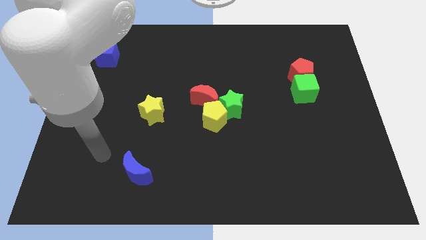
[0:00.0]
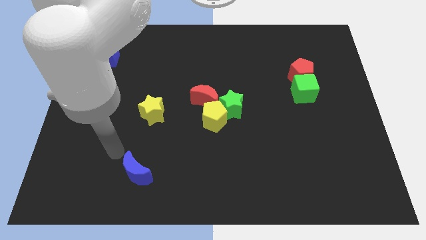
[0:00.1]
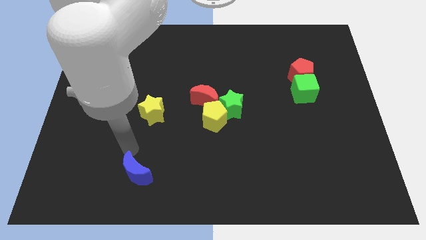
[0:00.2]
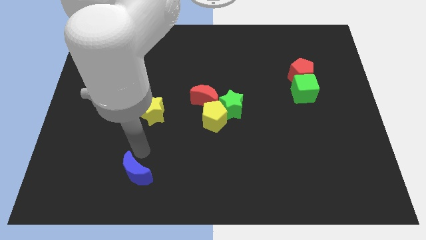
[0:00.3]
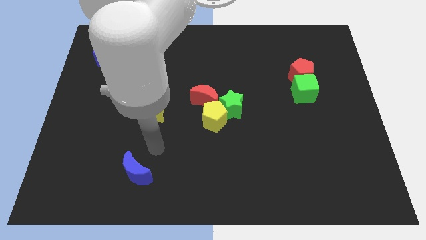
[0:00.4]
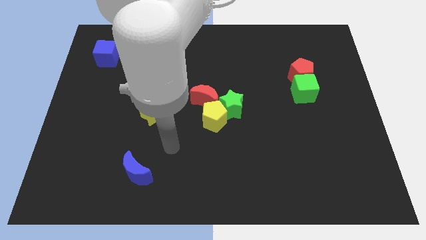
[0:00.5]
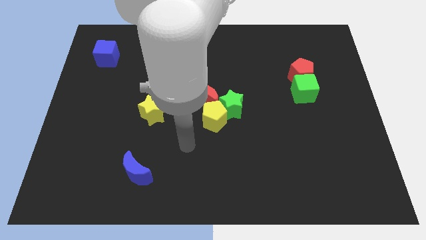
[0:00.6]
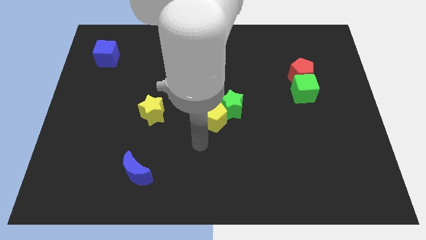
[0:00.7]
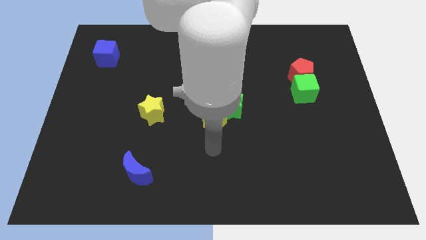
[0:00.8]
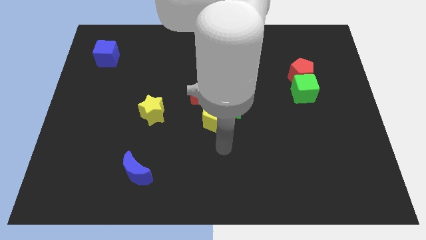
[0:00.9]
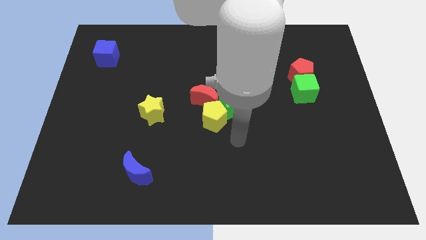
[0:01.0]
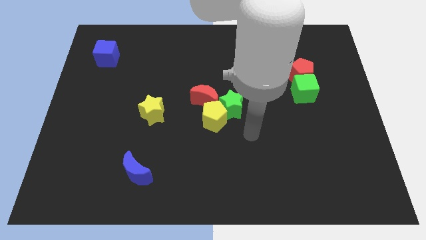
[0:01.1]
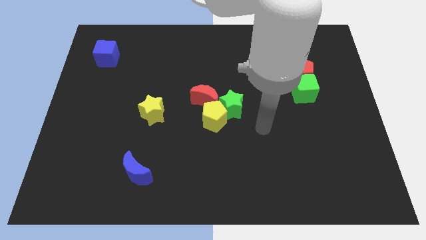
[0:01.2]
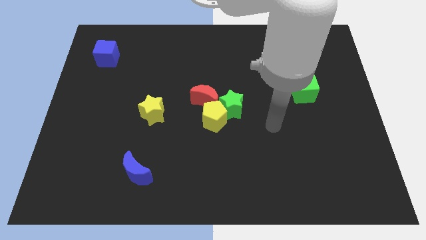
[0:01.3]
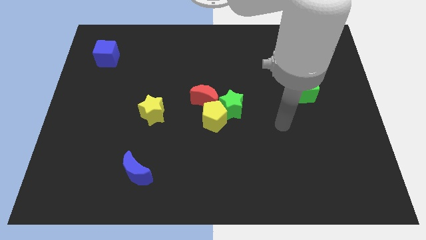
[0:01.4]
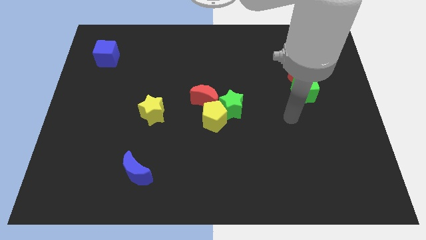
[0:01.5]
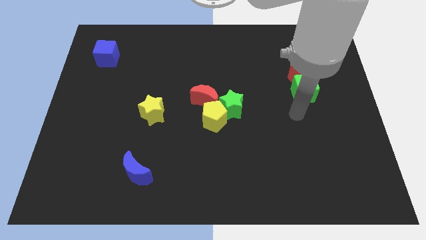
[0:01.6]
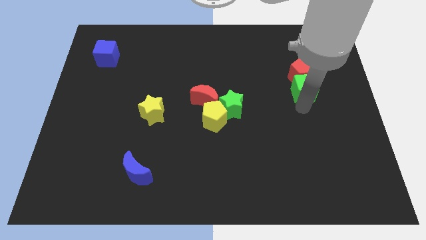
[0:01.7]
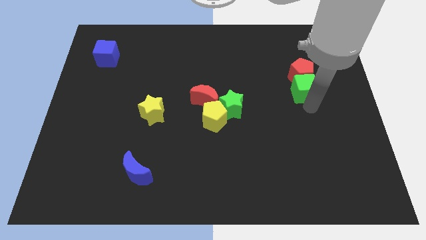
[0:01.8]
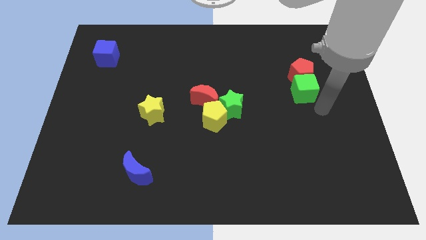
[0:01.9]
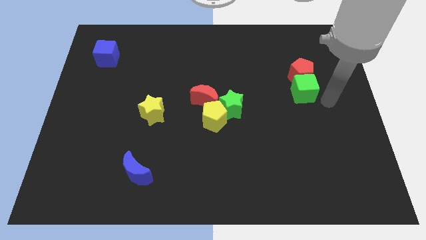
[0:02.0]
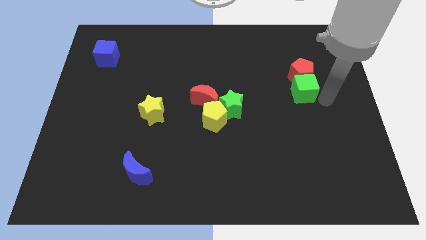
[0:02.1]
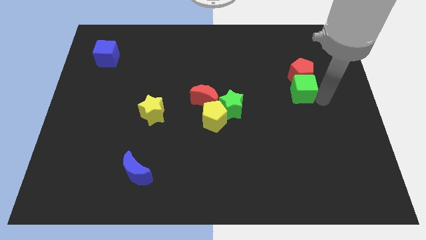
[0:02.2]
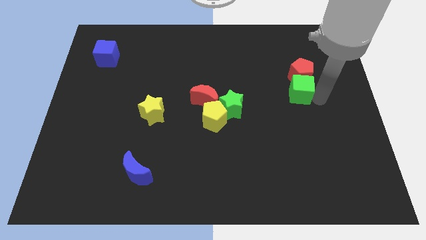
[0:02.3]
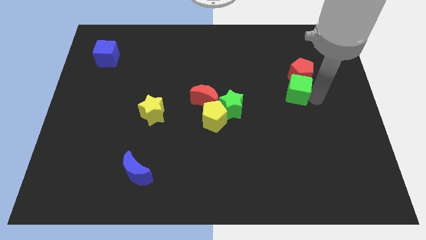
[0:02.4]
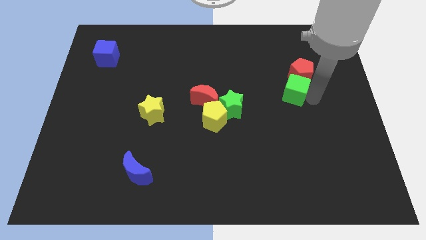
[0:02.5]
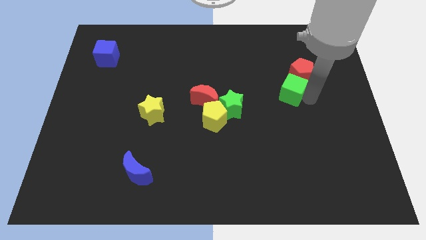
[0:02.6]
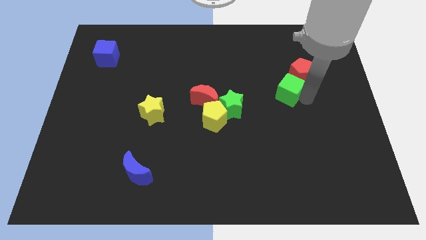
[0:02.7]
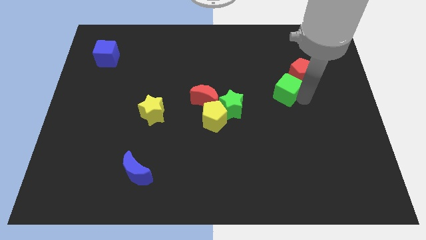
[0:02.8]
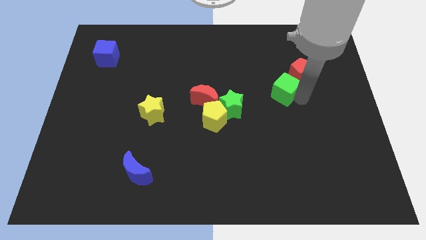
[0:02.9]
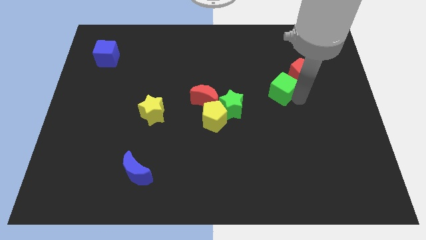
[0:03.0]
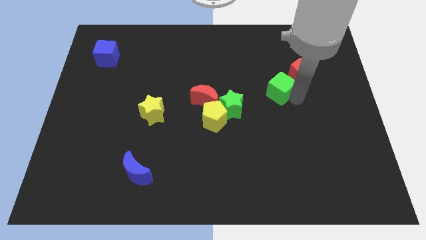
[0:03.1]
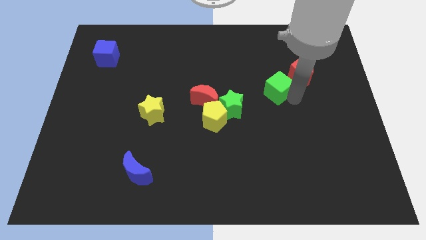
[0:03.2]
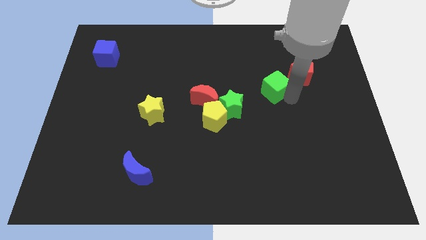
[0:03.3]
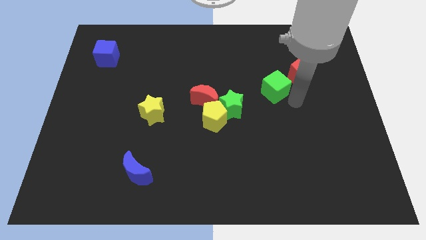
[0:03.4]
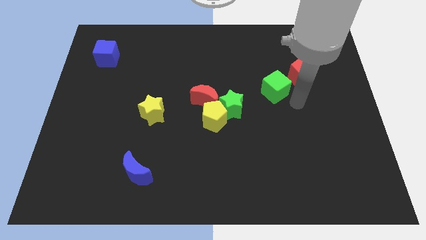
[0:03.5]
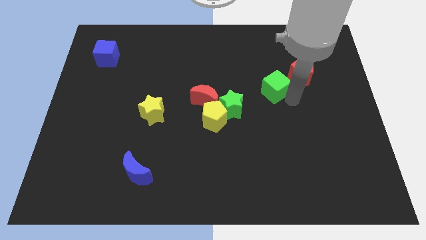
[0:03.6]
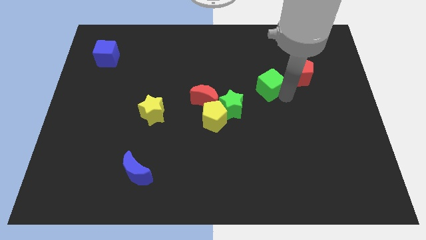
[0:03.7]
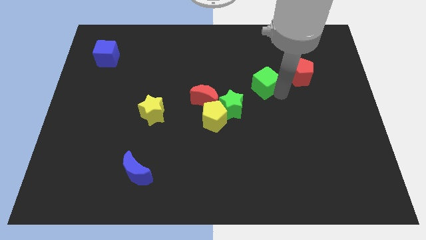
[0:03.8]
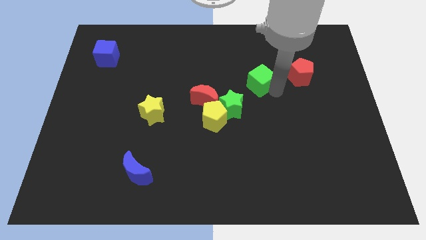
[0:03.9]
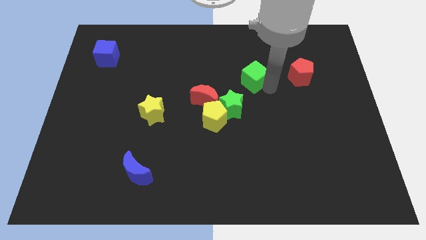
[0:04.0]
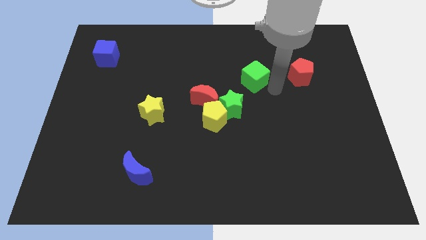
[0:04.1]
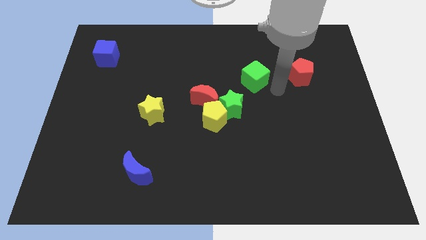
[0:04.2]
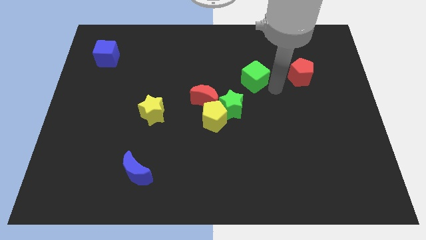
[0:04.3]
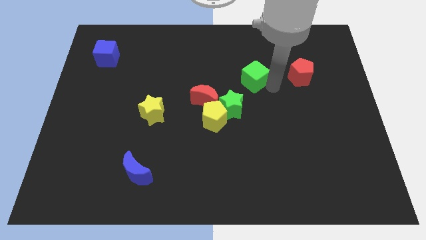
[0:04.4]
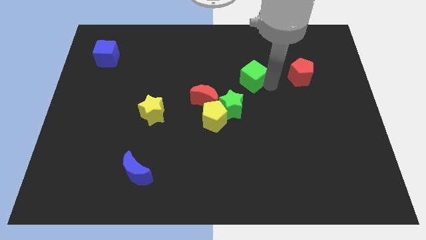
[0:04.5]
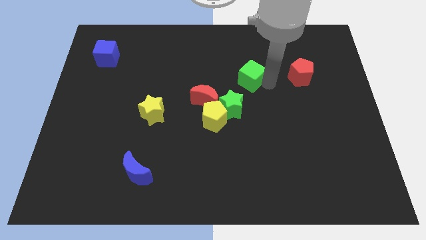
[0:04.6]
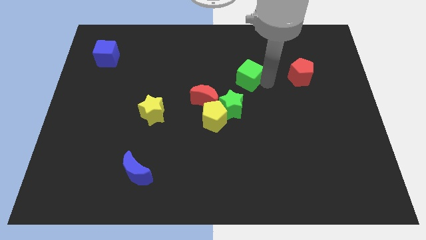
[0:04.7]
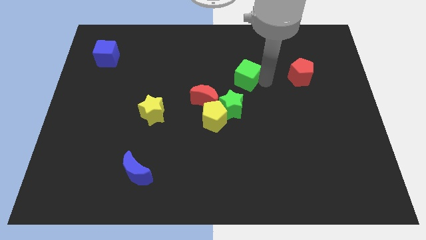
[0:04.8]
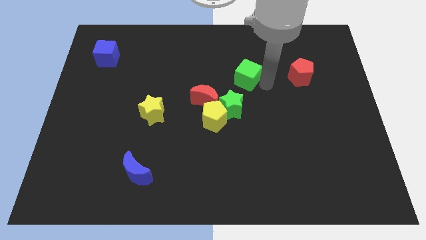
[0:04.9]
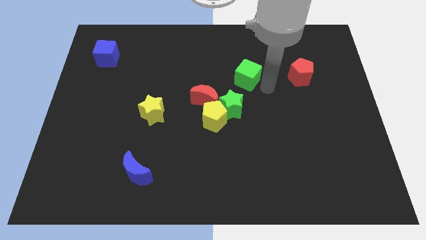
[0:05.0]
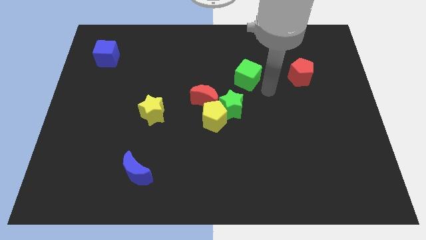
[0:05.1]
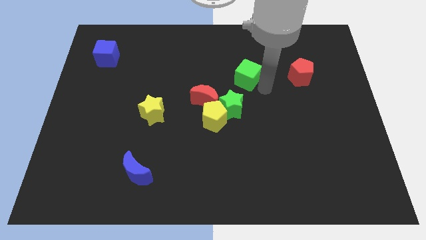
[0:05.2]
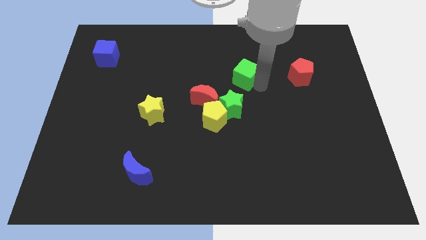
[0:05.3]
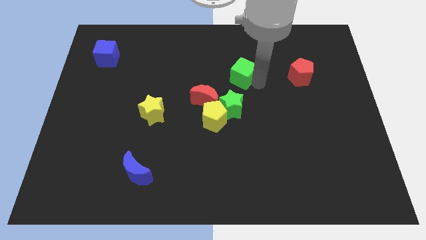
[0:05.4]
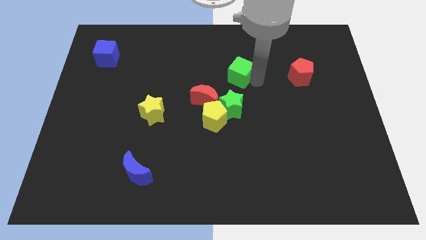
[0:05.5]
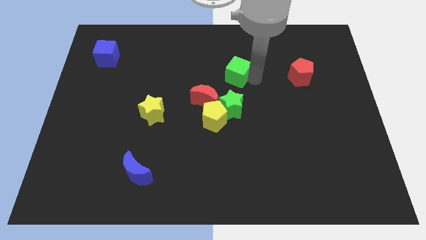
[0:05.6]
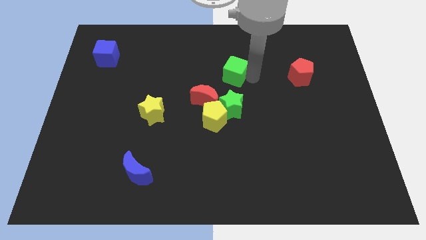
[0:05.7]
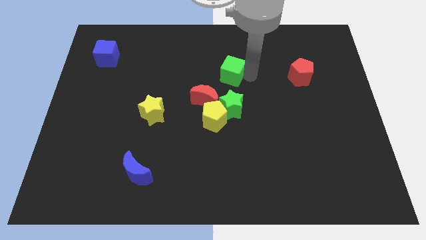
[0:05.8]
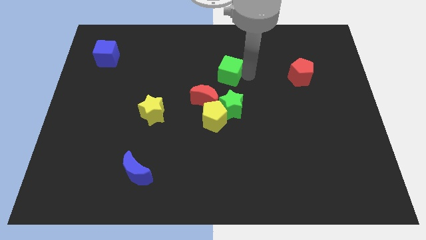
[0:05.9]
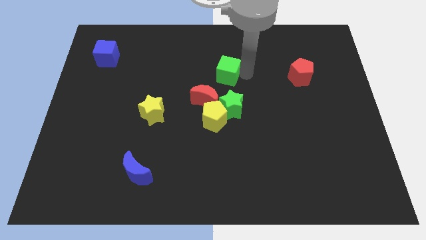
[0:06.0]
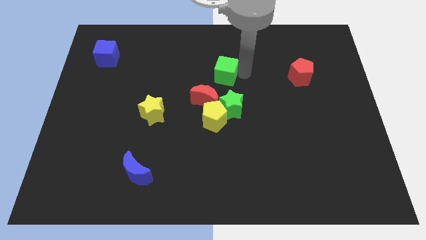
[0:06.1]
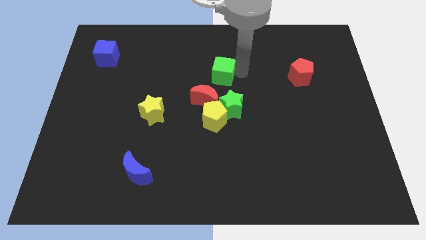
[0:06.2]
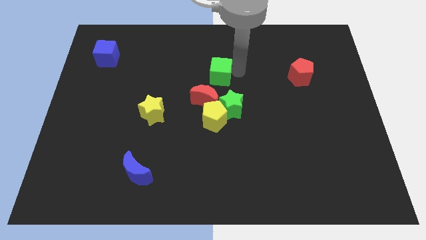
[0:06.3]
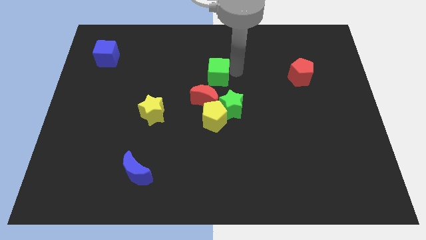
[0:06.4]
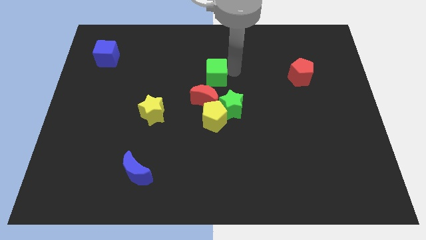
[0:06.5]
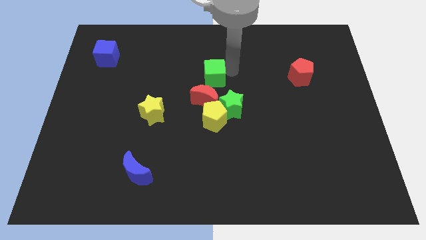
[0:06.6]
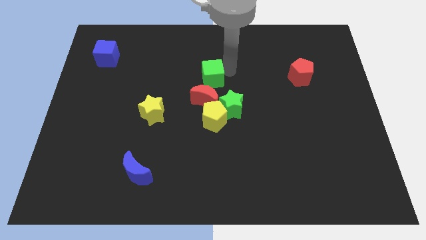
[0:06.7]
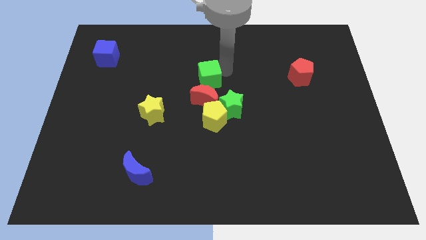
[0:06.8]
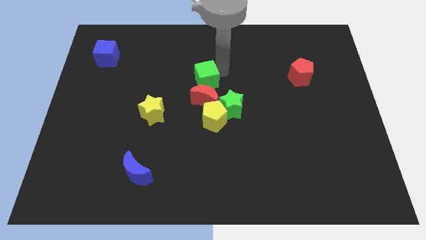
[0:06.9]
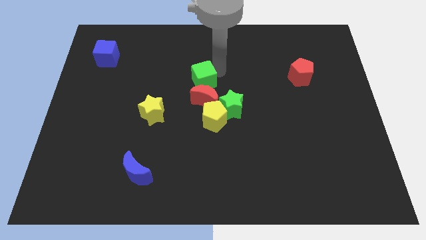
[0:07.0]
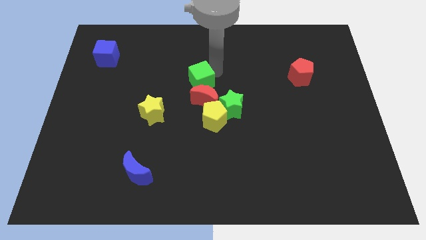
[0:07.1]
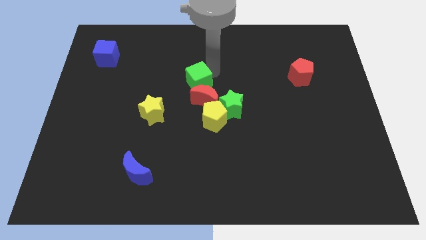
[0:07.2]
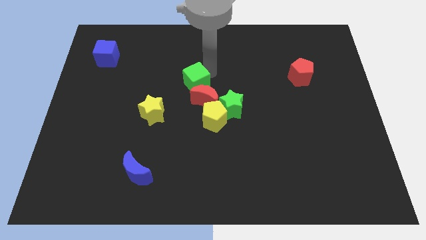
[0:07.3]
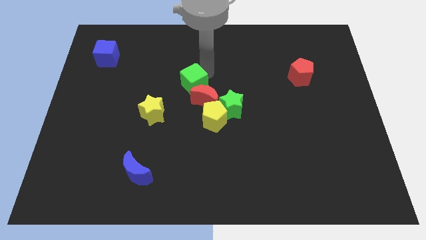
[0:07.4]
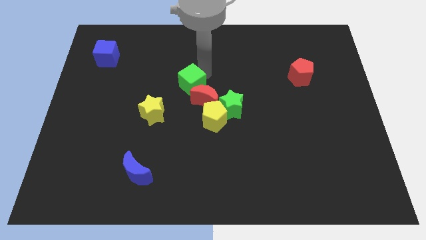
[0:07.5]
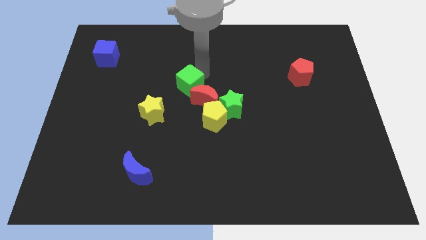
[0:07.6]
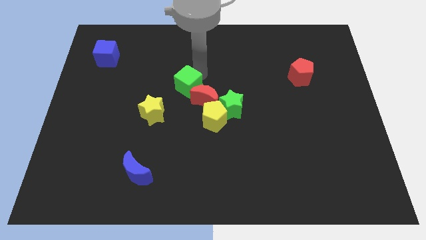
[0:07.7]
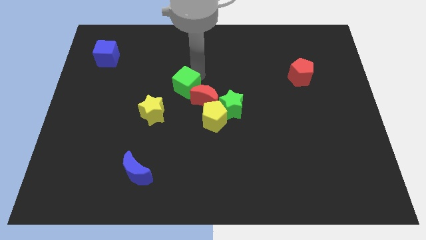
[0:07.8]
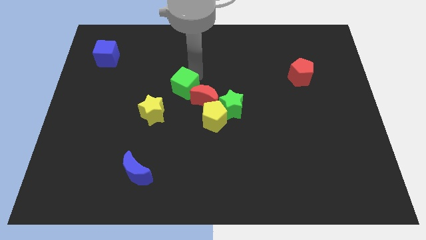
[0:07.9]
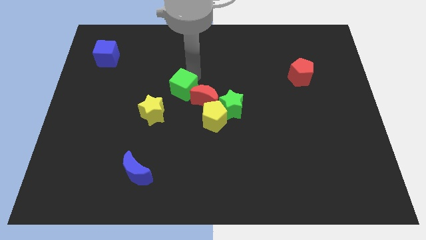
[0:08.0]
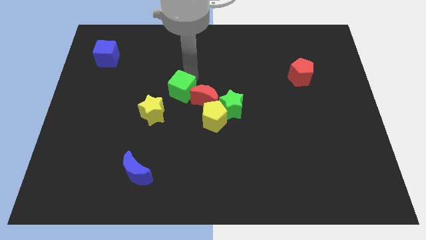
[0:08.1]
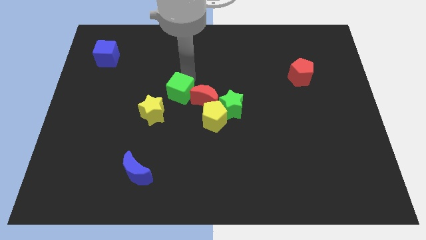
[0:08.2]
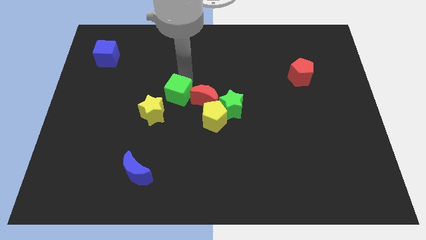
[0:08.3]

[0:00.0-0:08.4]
slide the green cube just left of the green star
